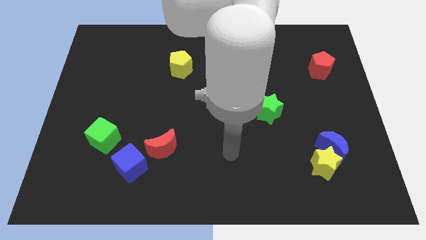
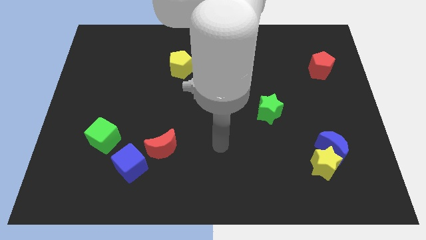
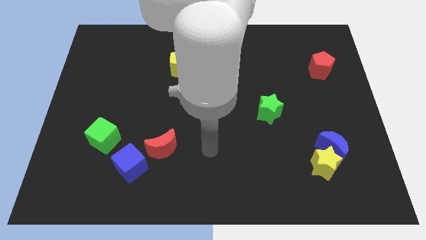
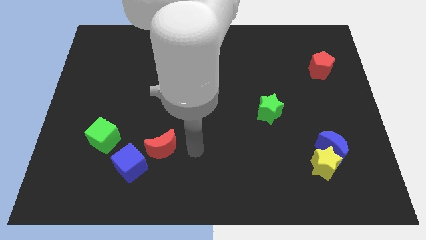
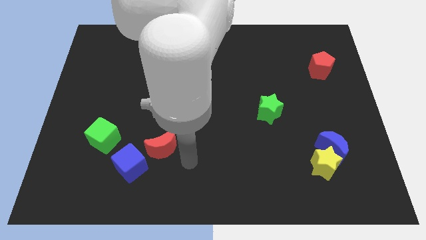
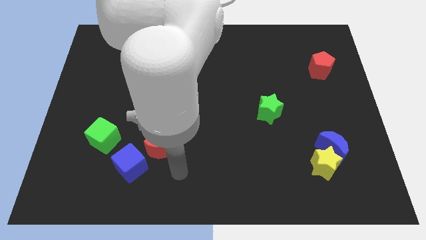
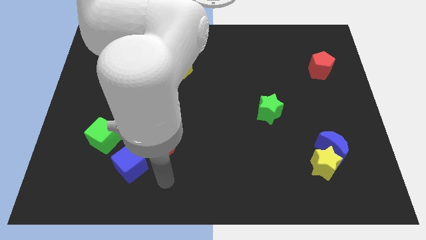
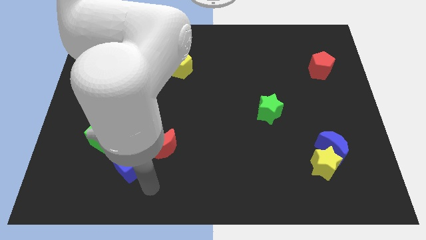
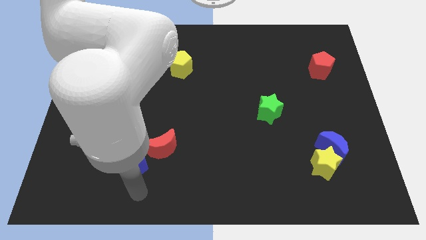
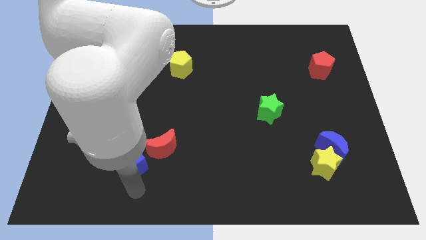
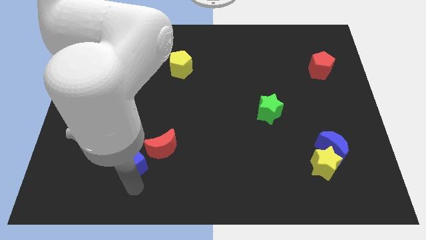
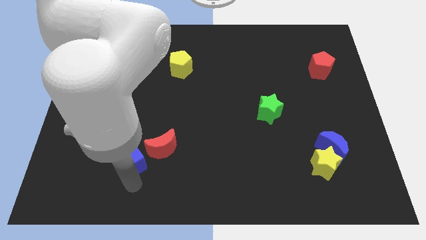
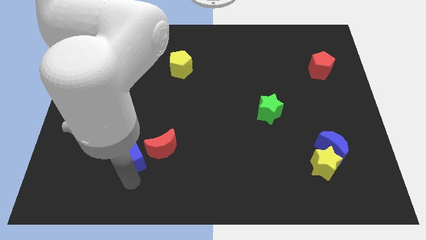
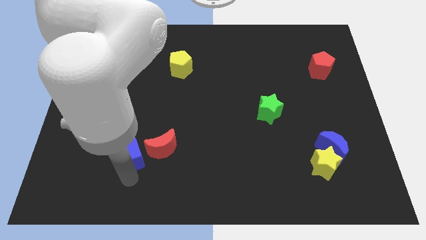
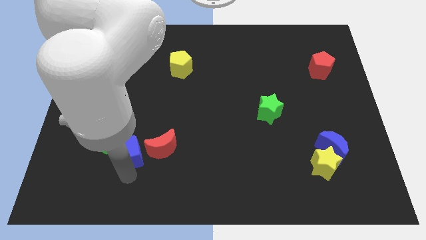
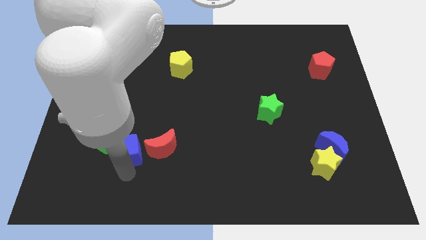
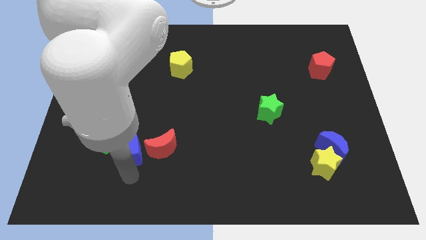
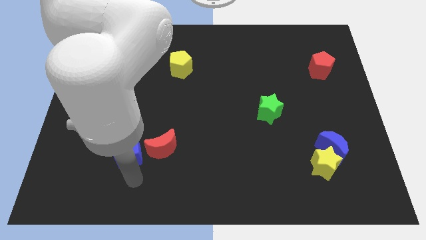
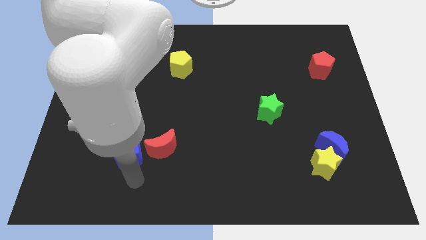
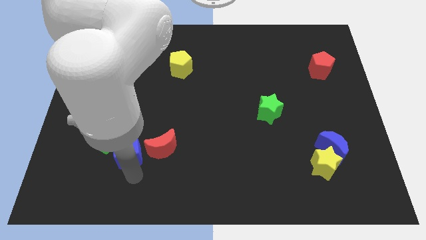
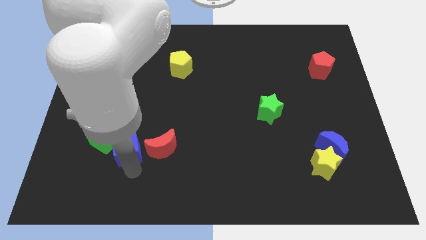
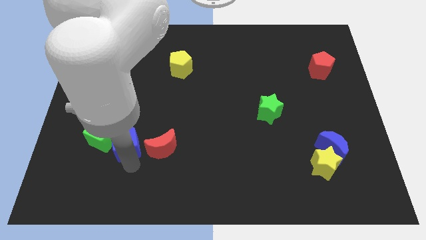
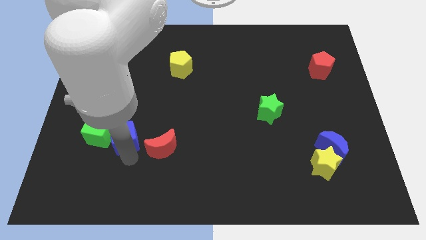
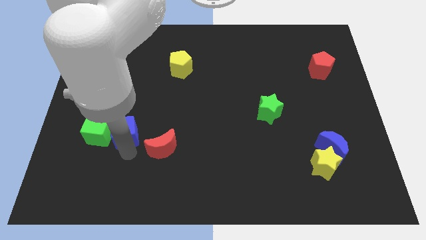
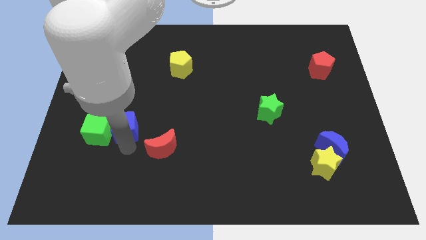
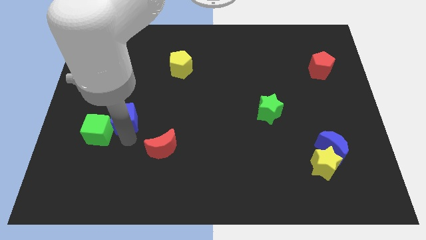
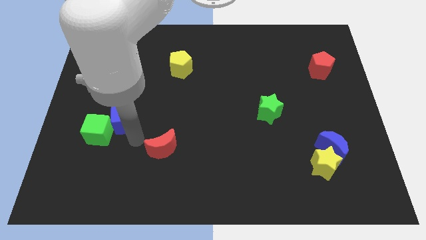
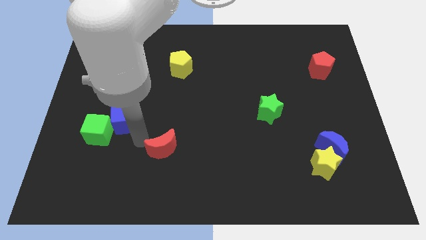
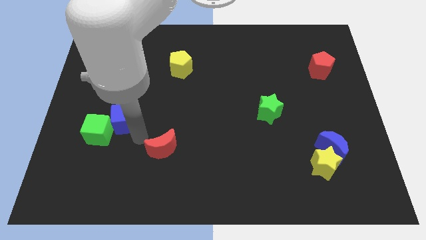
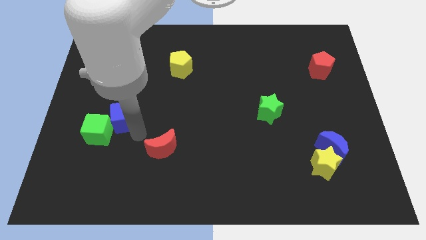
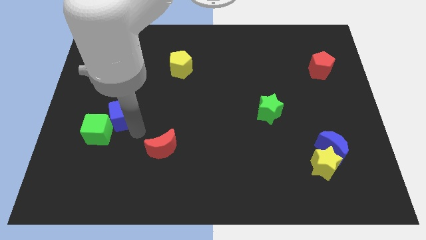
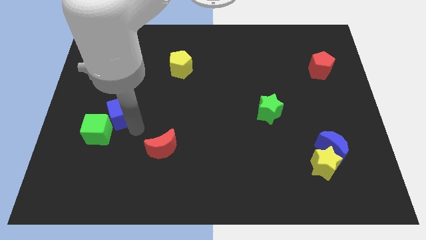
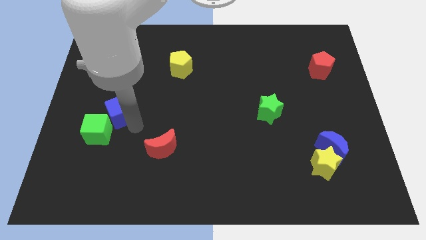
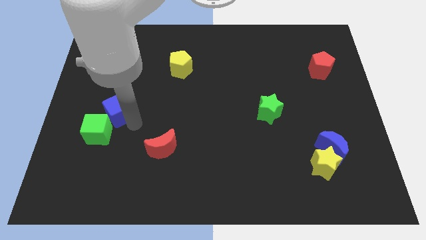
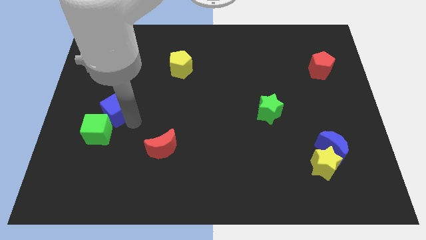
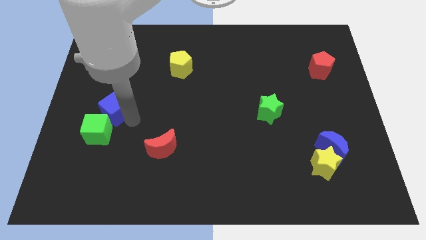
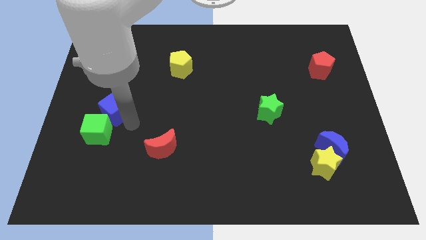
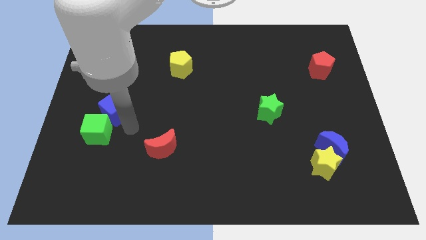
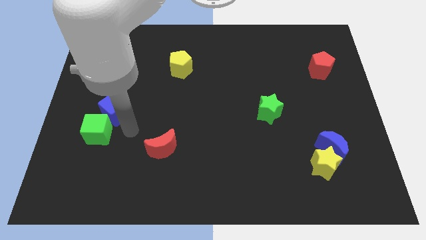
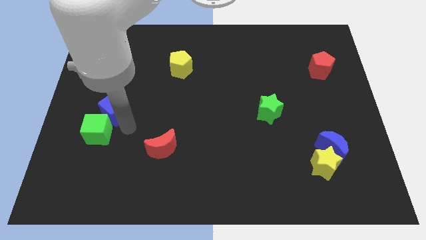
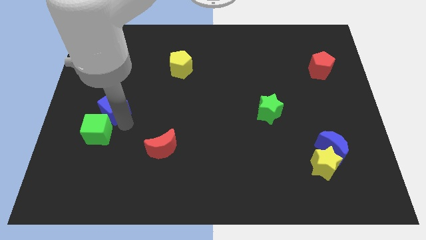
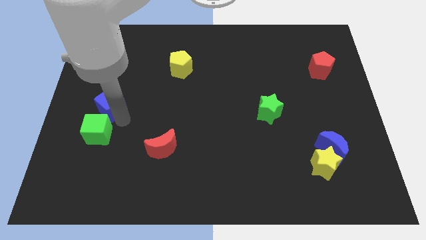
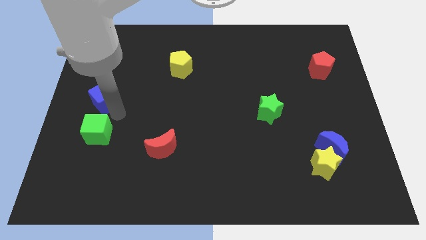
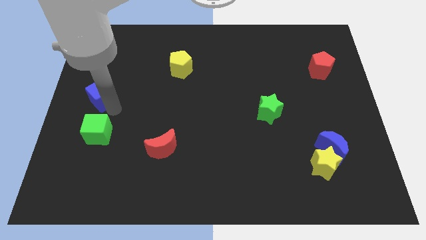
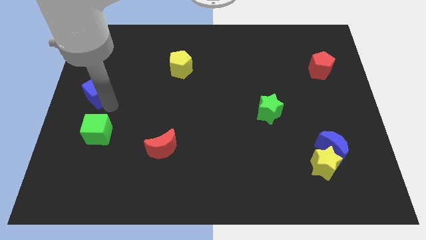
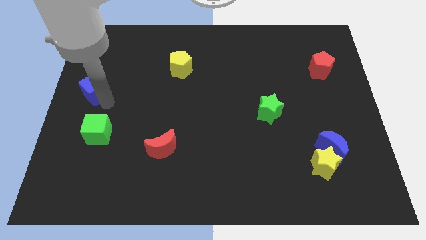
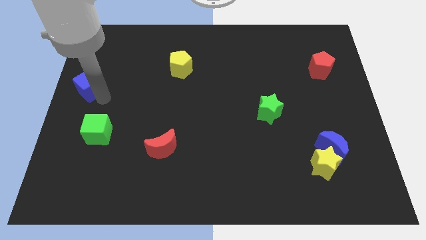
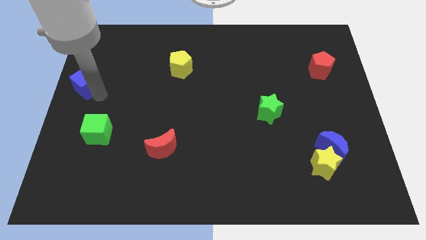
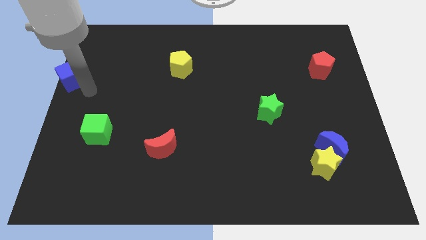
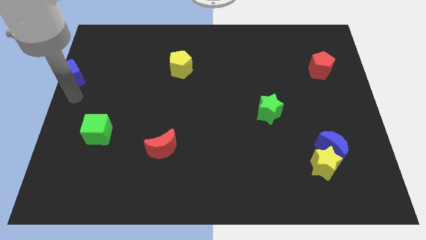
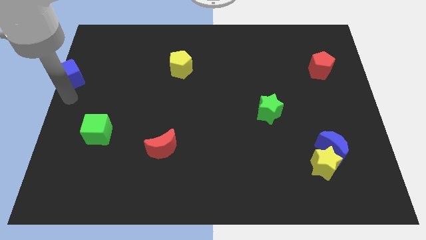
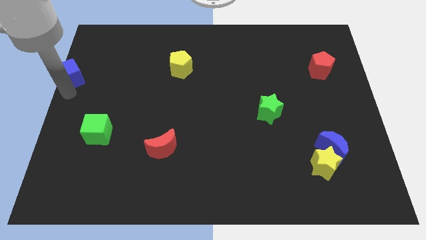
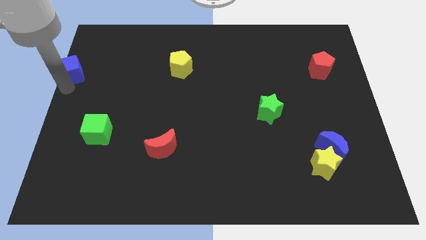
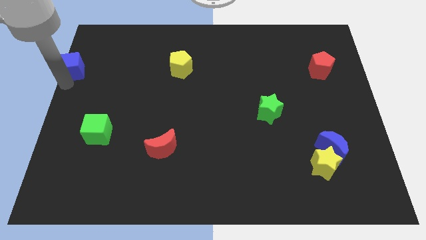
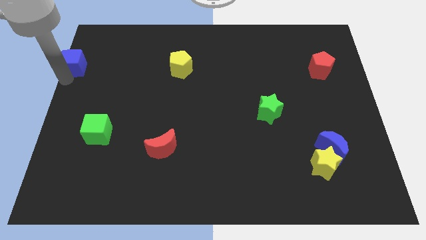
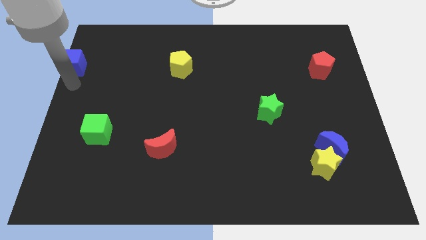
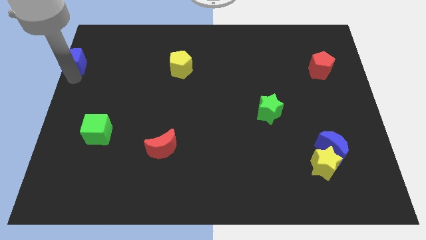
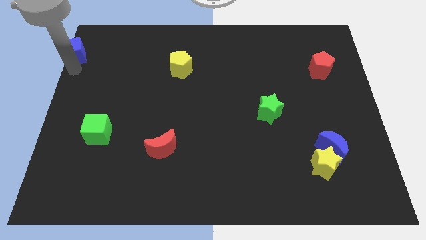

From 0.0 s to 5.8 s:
put the blue cube to the top left
